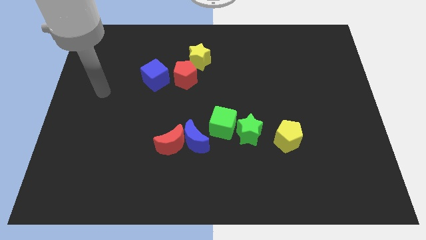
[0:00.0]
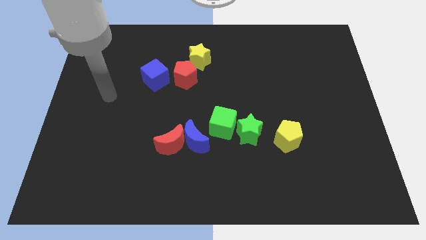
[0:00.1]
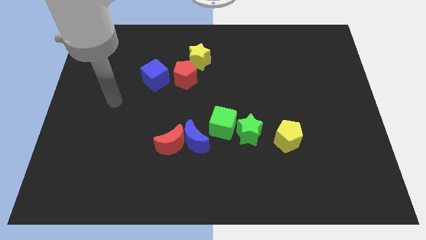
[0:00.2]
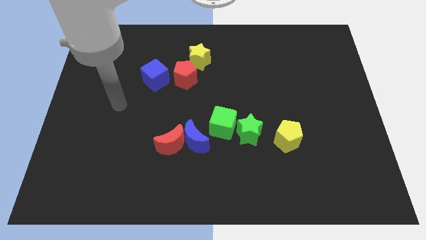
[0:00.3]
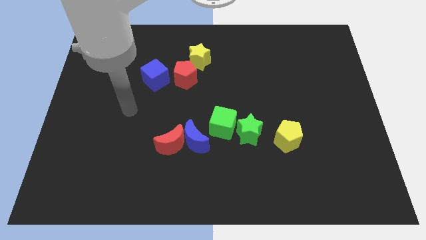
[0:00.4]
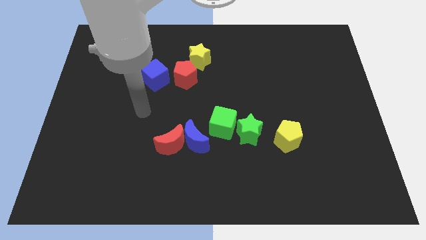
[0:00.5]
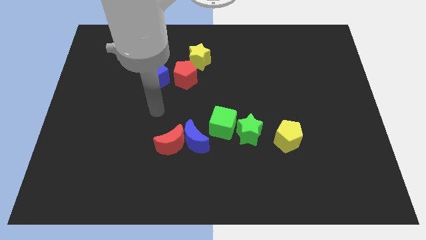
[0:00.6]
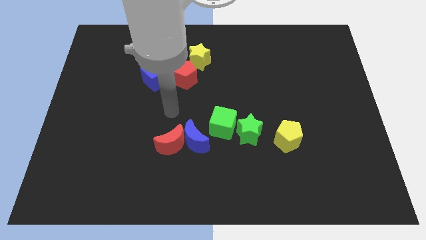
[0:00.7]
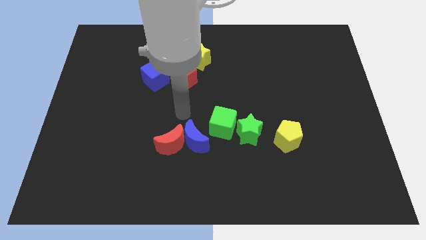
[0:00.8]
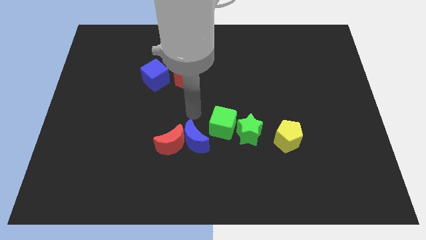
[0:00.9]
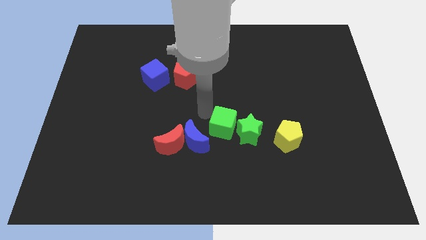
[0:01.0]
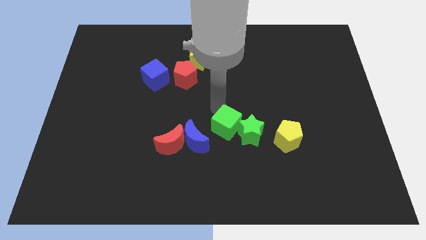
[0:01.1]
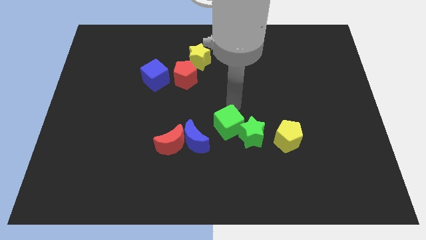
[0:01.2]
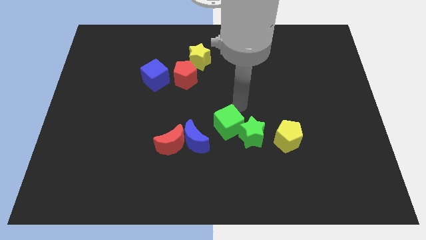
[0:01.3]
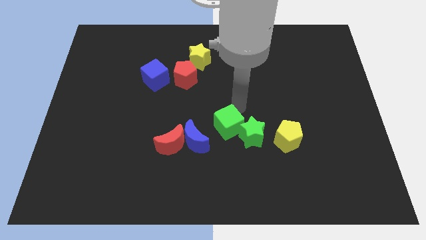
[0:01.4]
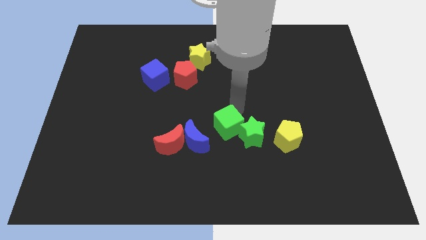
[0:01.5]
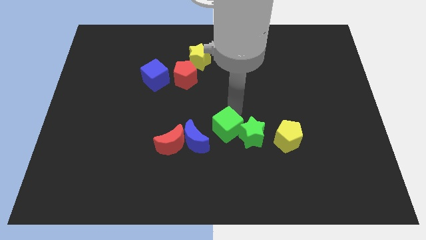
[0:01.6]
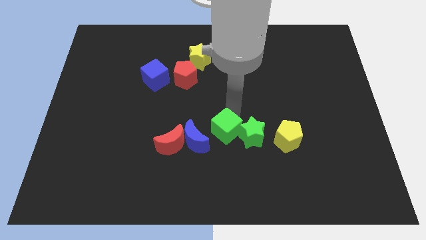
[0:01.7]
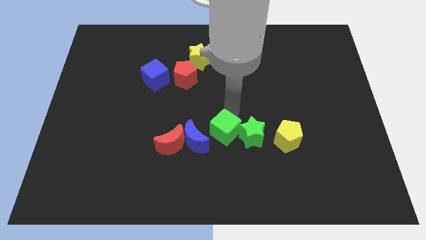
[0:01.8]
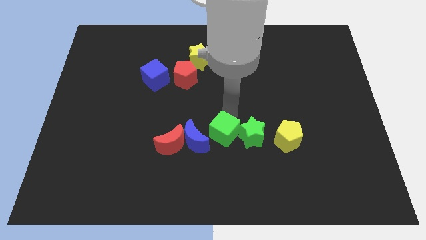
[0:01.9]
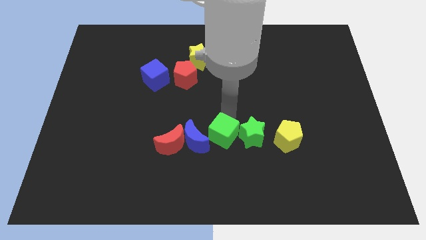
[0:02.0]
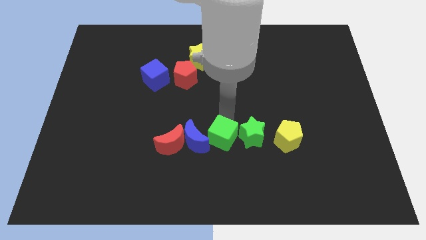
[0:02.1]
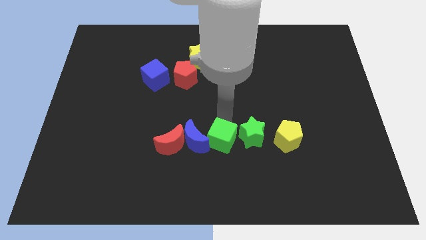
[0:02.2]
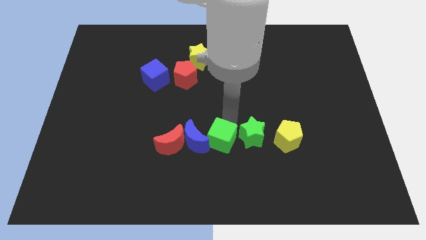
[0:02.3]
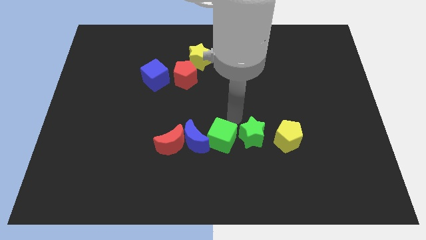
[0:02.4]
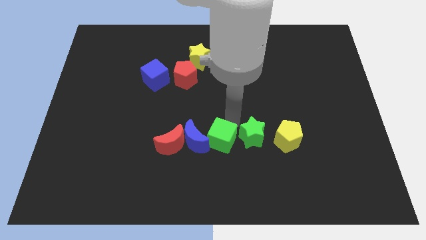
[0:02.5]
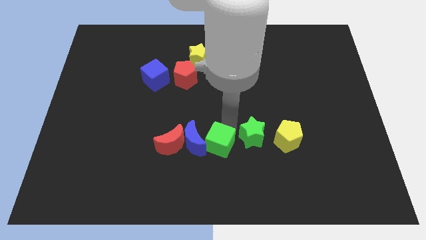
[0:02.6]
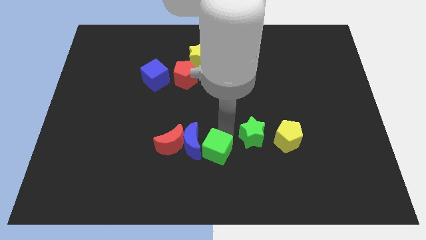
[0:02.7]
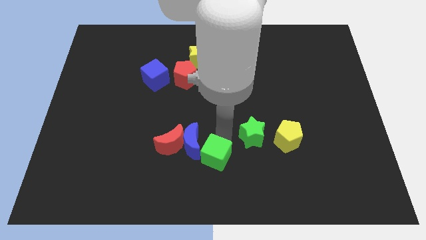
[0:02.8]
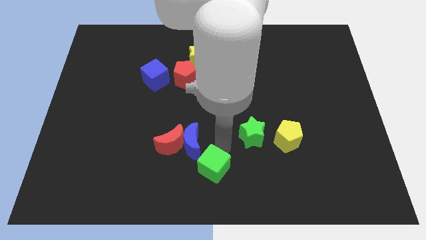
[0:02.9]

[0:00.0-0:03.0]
push the green cube down and left a little

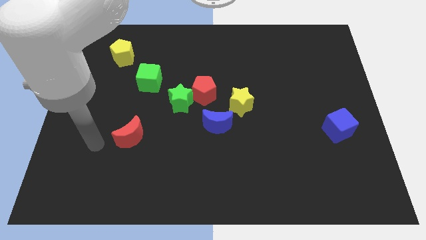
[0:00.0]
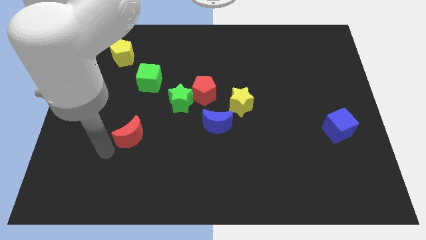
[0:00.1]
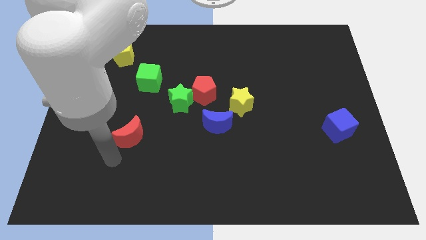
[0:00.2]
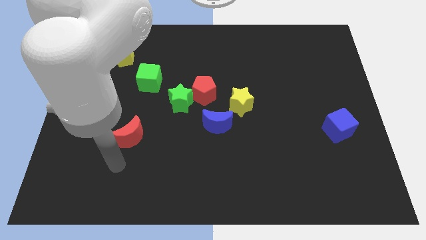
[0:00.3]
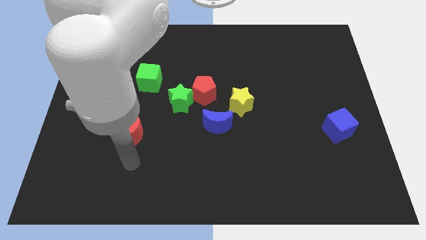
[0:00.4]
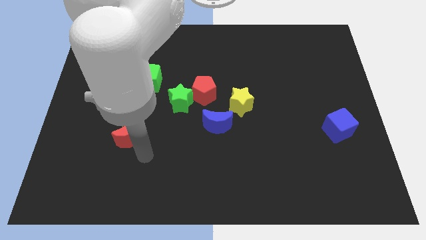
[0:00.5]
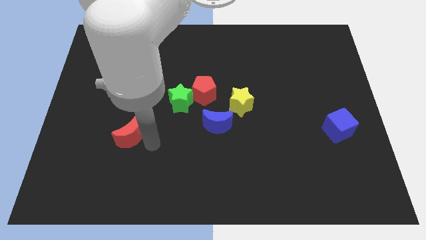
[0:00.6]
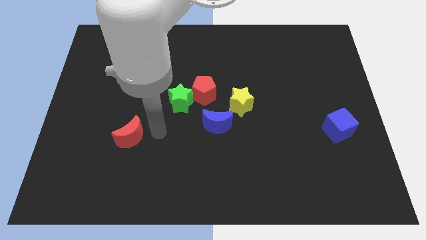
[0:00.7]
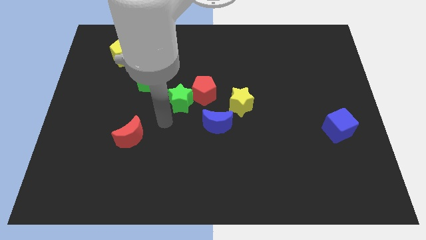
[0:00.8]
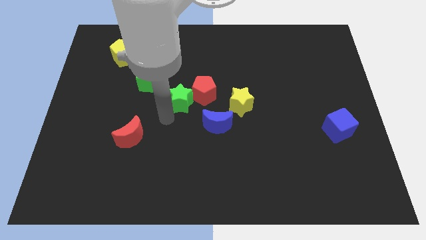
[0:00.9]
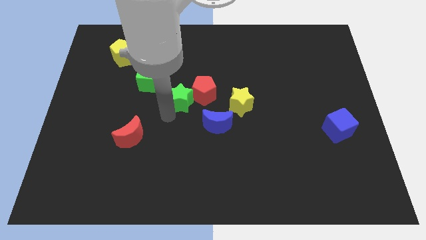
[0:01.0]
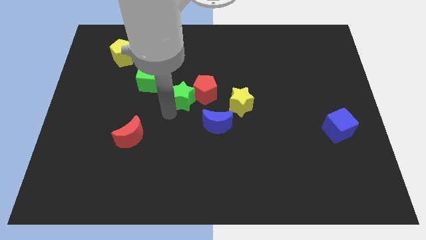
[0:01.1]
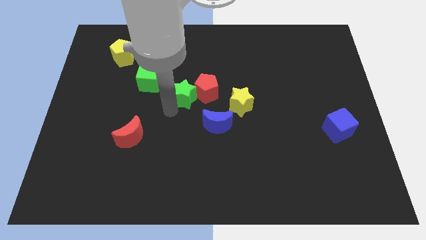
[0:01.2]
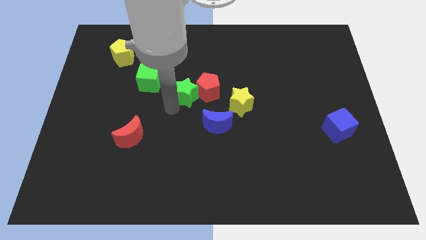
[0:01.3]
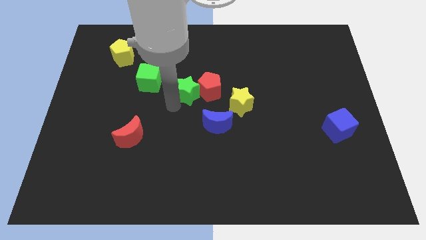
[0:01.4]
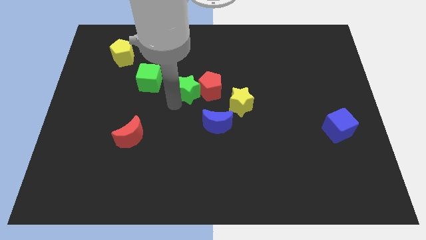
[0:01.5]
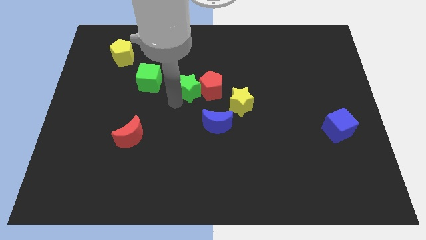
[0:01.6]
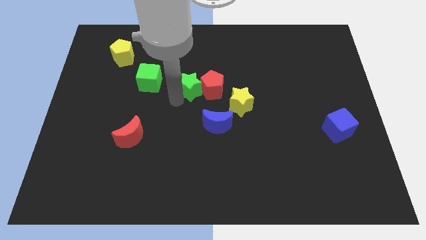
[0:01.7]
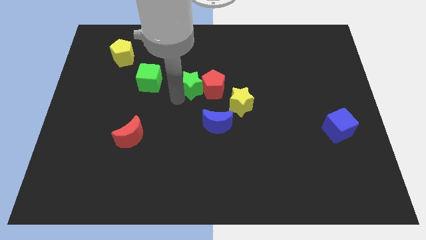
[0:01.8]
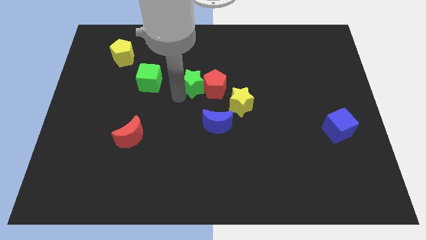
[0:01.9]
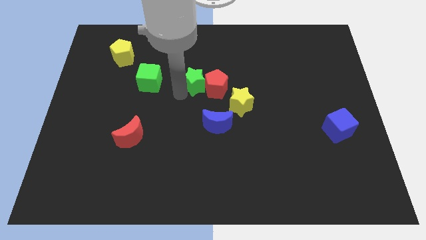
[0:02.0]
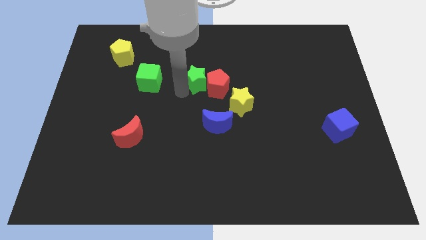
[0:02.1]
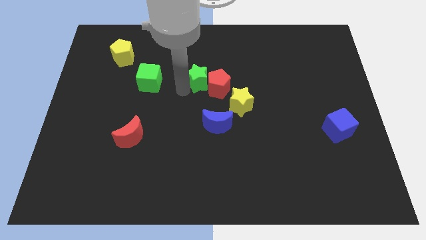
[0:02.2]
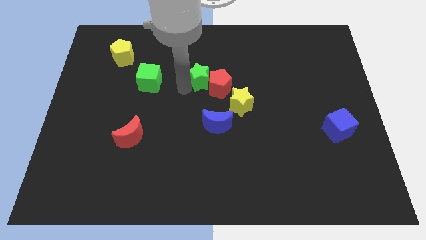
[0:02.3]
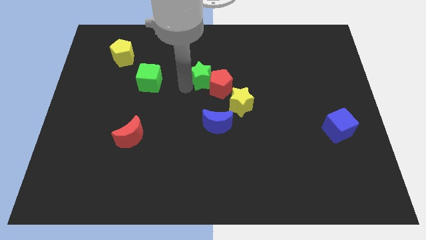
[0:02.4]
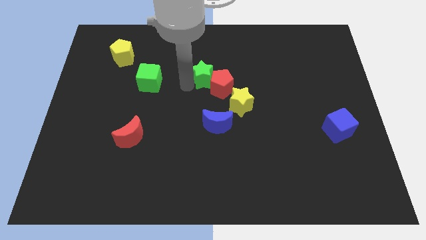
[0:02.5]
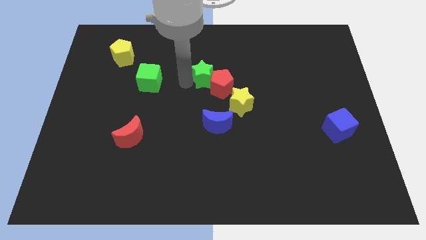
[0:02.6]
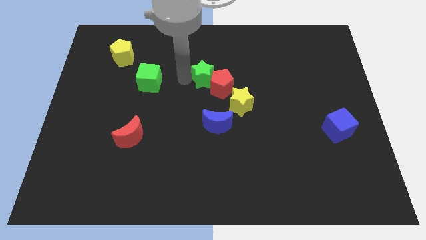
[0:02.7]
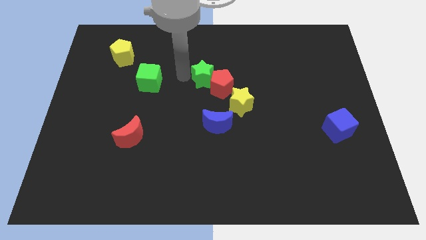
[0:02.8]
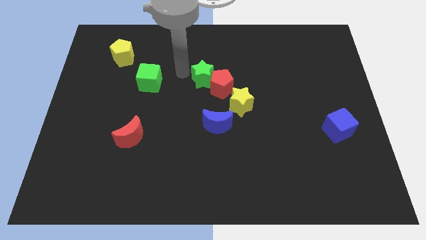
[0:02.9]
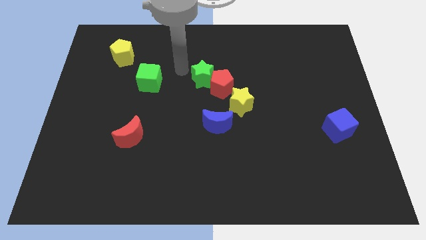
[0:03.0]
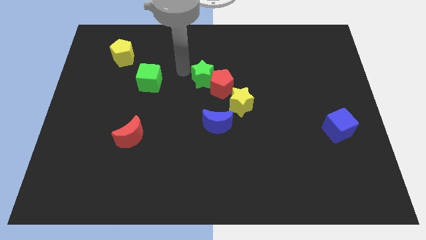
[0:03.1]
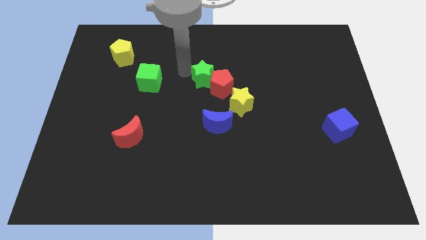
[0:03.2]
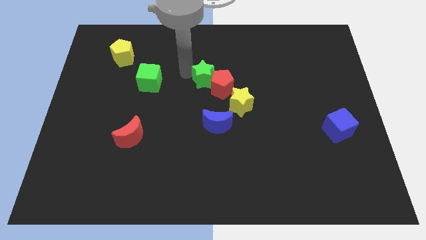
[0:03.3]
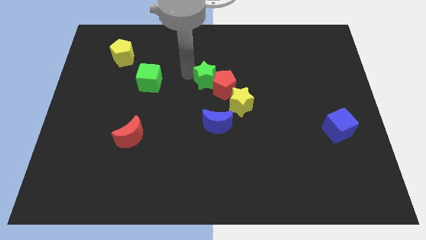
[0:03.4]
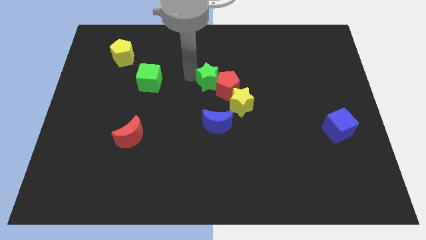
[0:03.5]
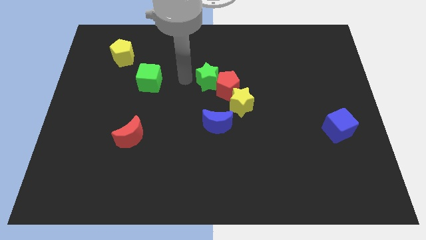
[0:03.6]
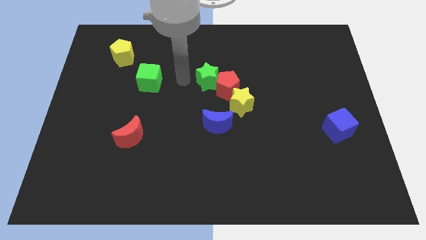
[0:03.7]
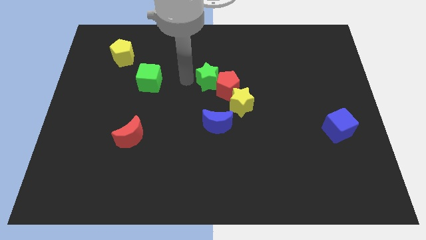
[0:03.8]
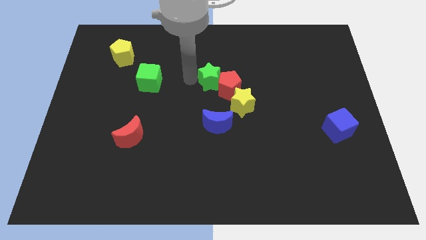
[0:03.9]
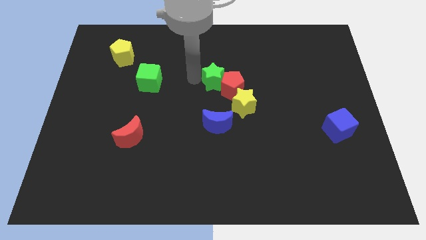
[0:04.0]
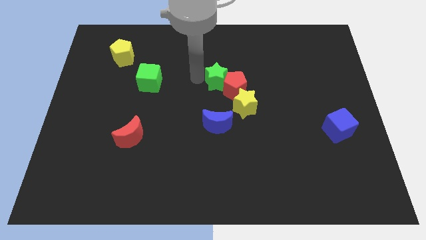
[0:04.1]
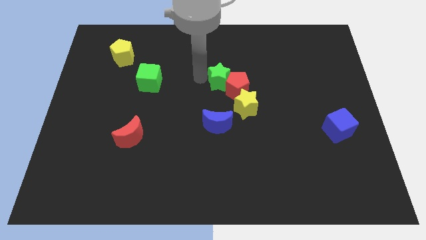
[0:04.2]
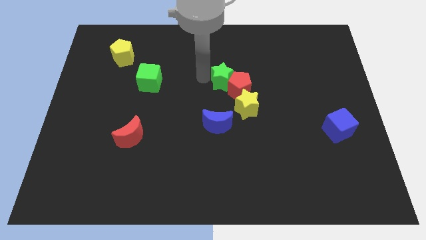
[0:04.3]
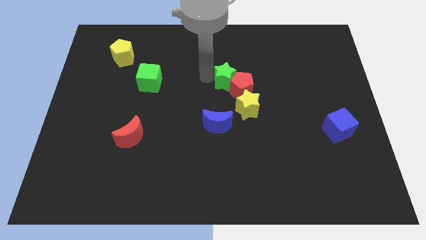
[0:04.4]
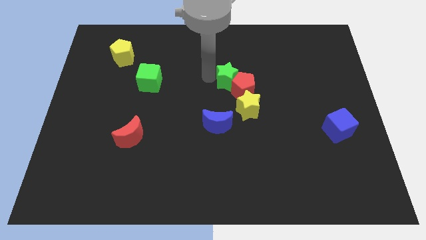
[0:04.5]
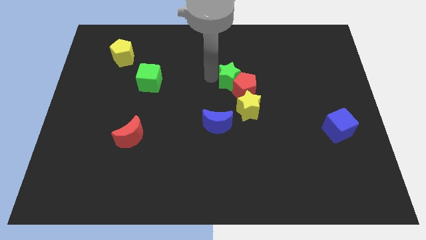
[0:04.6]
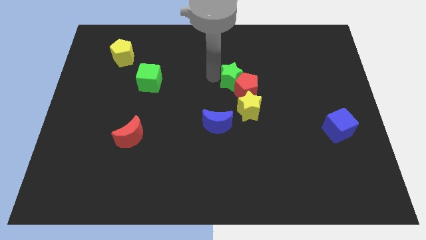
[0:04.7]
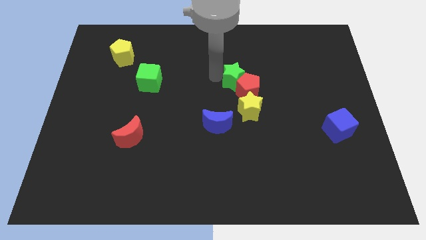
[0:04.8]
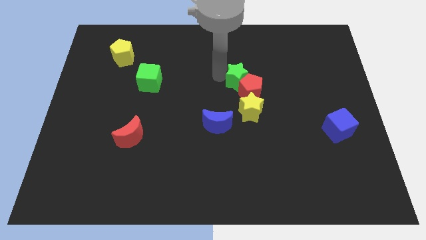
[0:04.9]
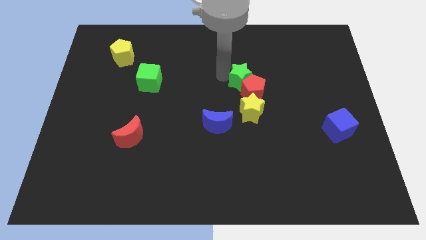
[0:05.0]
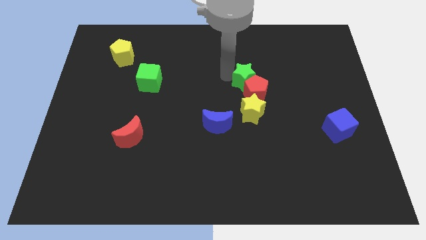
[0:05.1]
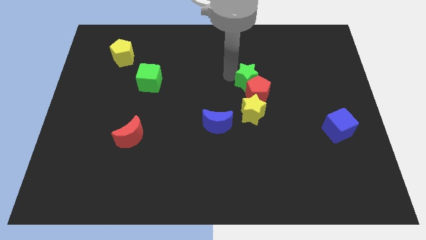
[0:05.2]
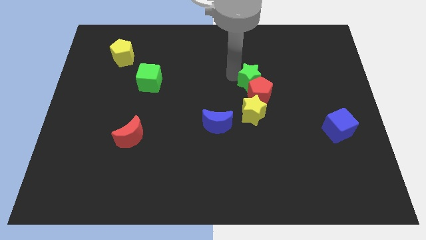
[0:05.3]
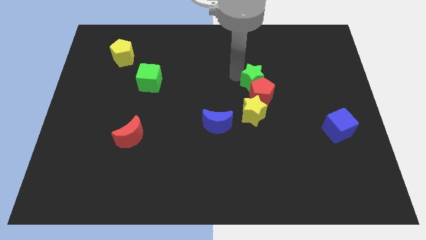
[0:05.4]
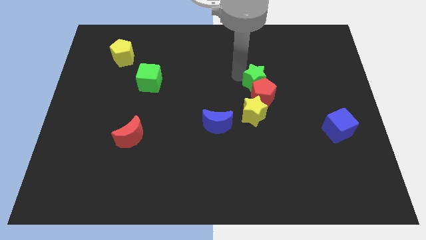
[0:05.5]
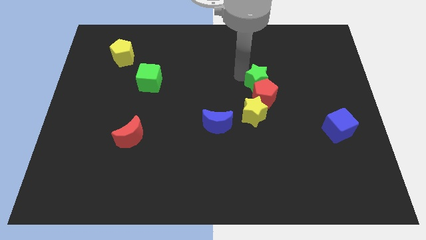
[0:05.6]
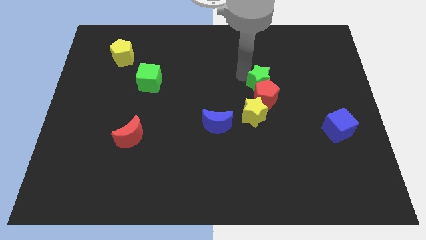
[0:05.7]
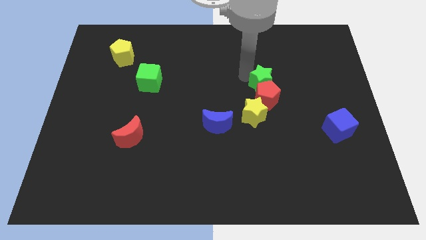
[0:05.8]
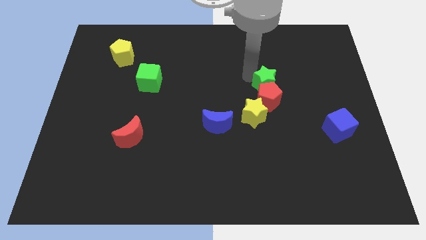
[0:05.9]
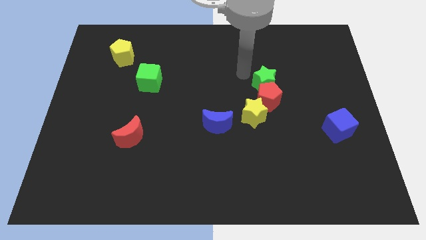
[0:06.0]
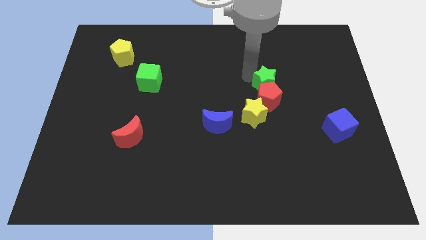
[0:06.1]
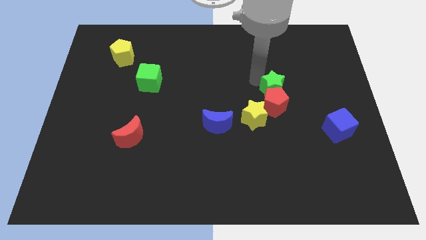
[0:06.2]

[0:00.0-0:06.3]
slide the green star to the right
